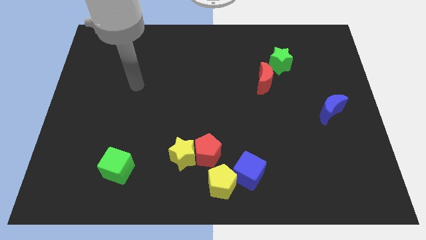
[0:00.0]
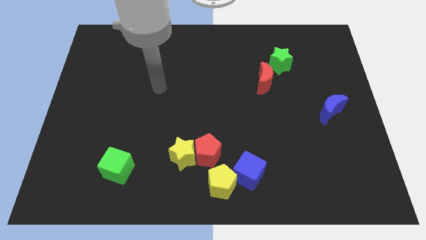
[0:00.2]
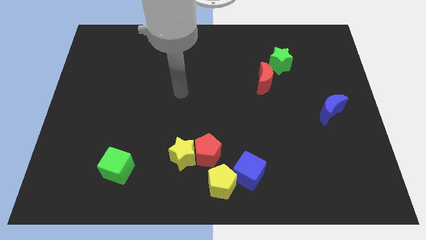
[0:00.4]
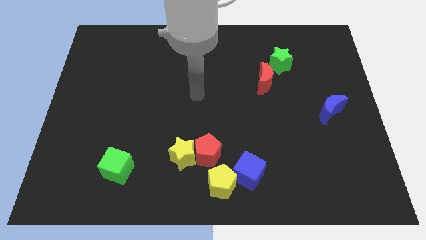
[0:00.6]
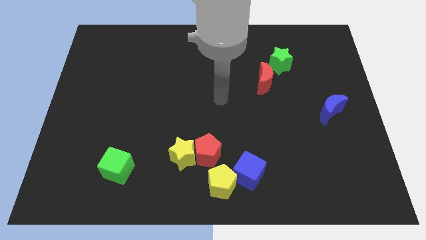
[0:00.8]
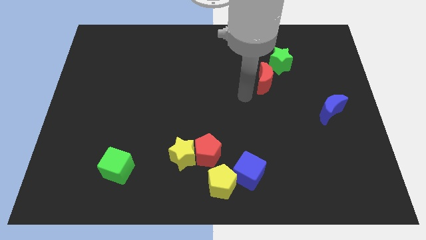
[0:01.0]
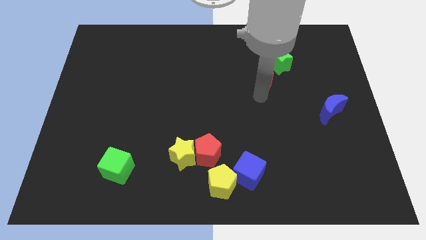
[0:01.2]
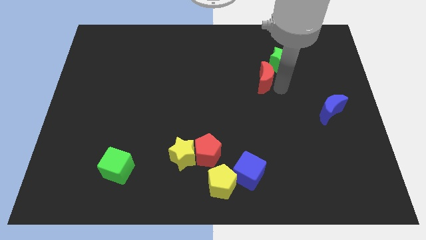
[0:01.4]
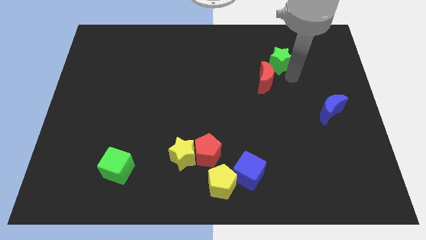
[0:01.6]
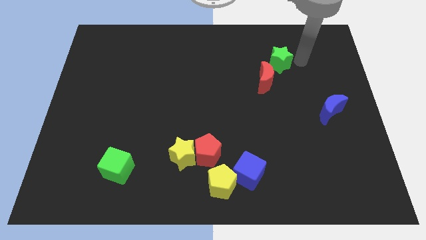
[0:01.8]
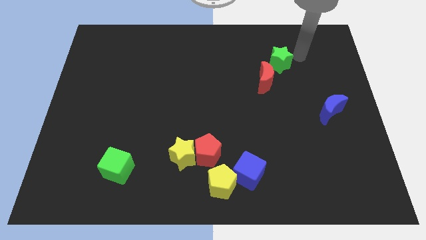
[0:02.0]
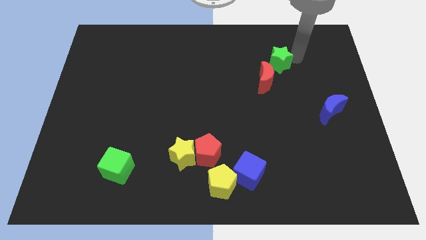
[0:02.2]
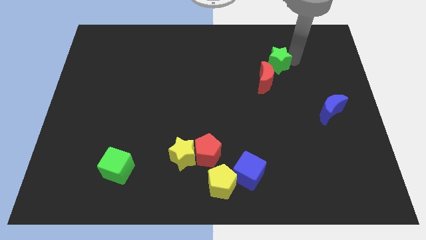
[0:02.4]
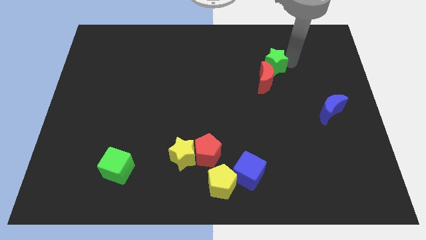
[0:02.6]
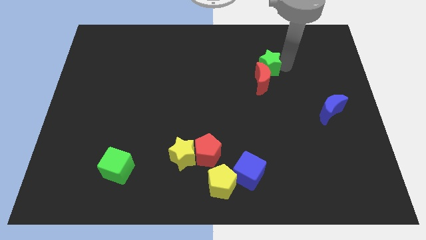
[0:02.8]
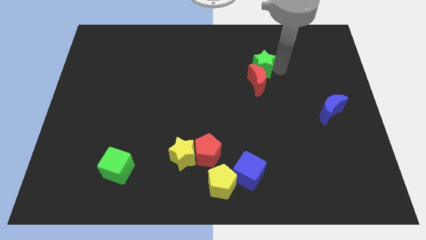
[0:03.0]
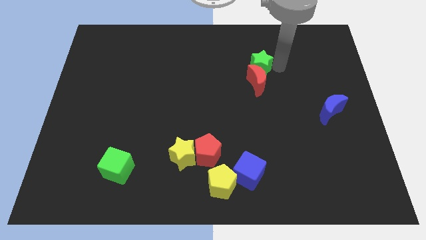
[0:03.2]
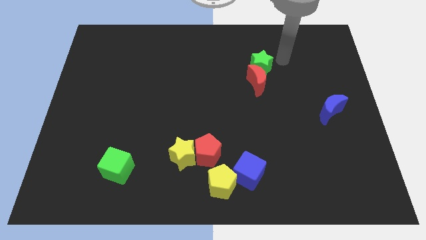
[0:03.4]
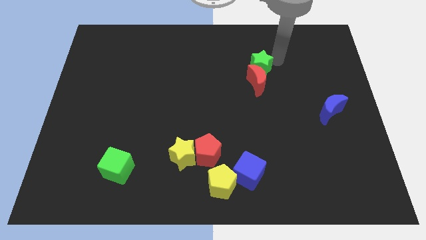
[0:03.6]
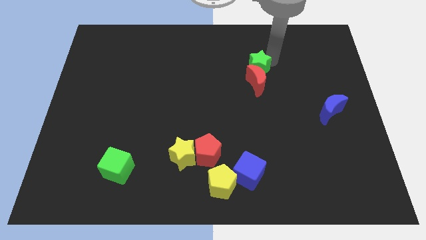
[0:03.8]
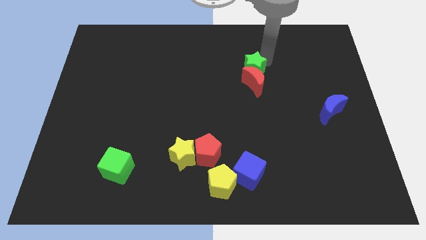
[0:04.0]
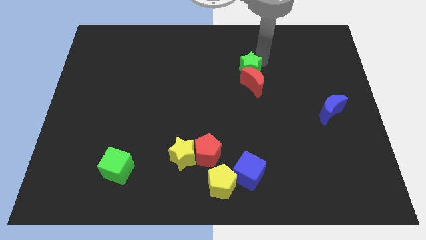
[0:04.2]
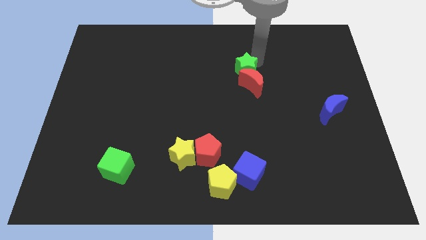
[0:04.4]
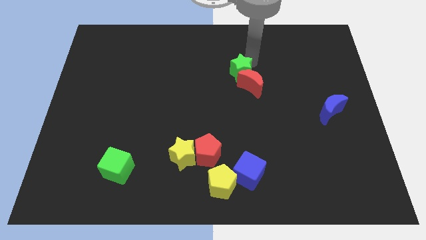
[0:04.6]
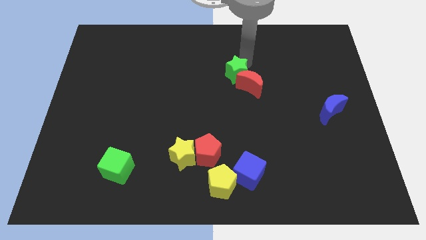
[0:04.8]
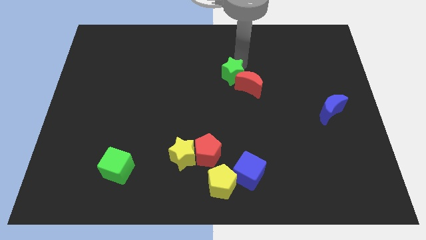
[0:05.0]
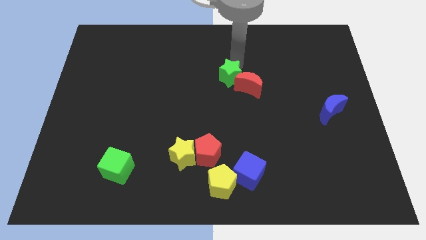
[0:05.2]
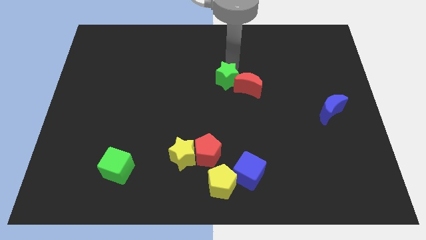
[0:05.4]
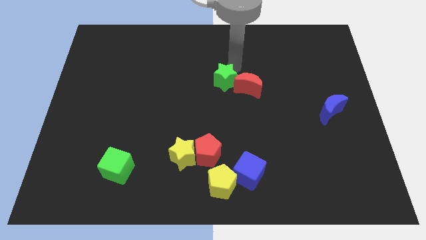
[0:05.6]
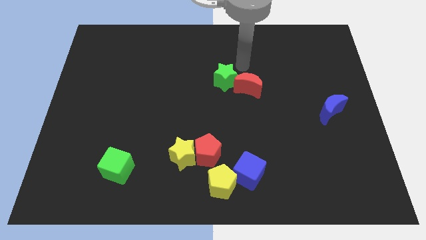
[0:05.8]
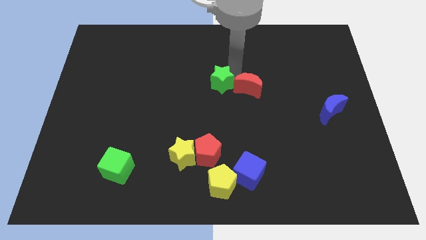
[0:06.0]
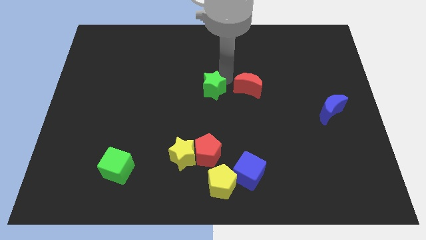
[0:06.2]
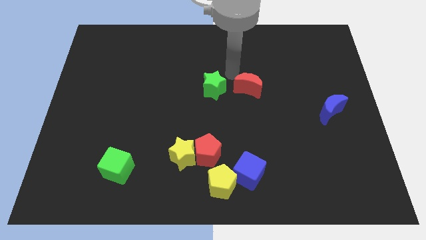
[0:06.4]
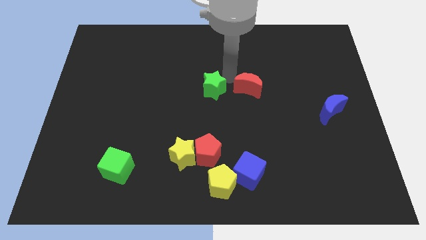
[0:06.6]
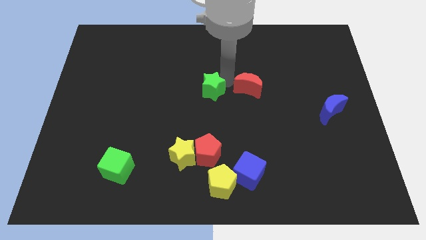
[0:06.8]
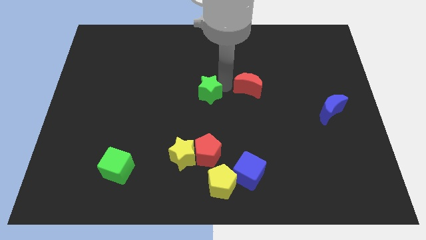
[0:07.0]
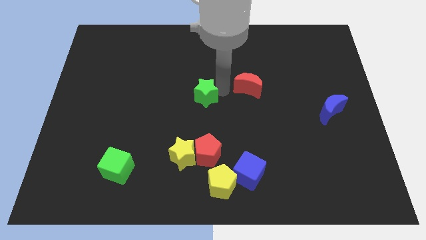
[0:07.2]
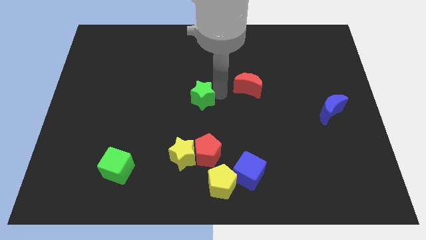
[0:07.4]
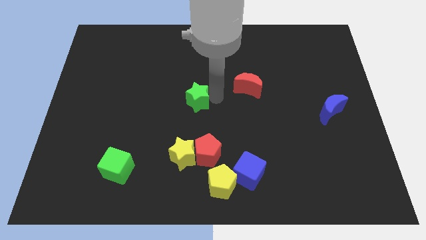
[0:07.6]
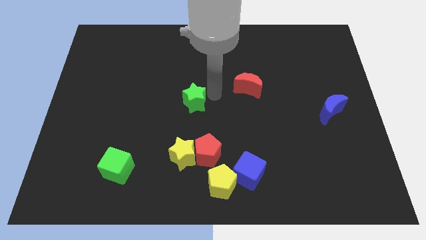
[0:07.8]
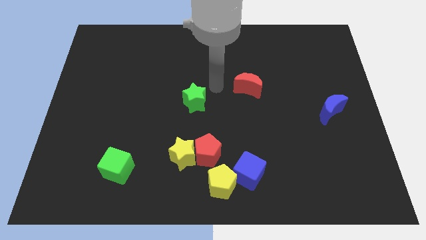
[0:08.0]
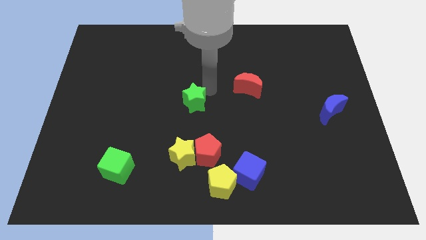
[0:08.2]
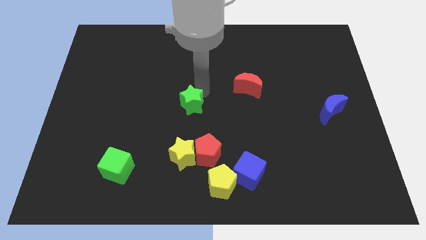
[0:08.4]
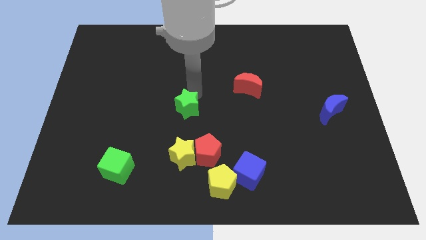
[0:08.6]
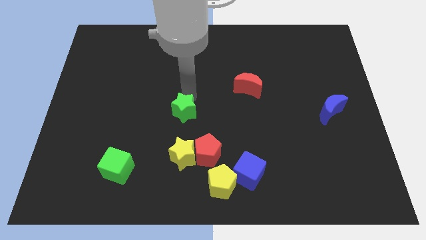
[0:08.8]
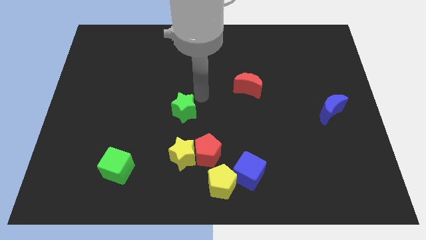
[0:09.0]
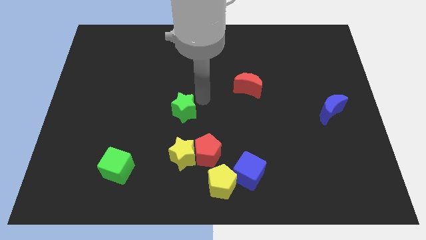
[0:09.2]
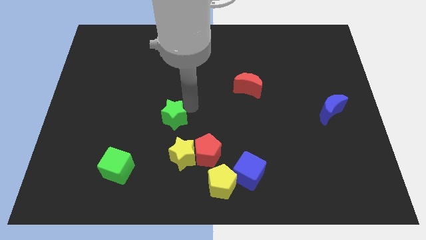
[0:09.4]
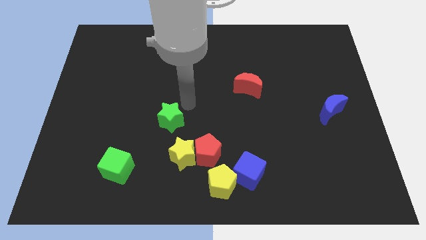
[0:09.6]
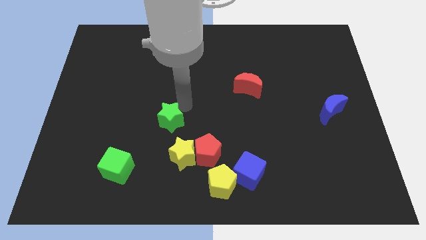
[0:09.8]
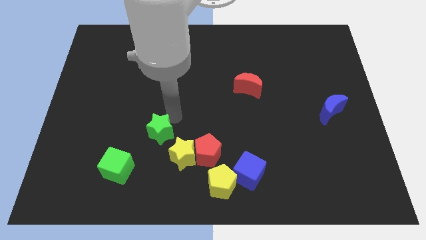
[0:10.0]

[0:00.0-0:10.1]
put the green star diagonally up and to the right of the green cube
